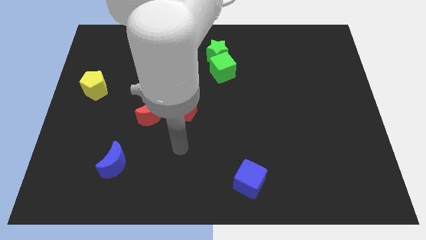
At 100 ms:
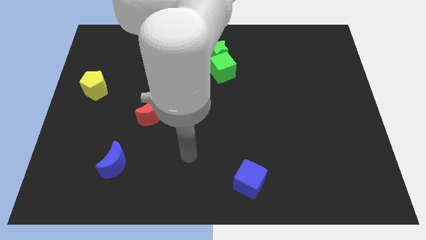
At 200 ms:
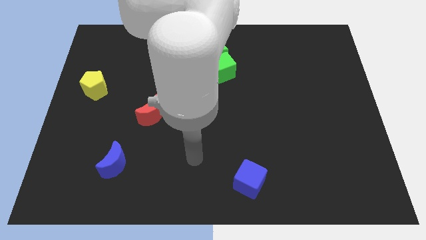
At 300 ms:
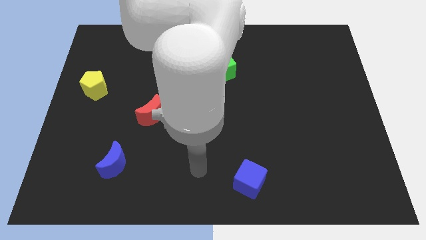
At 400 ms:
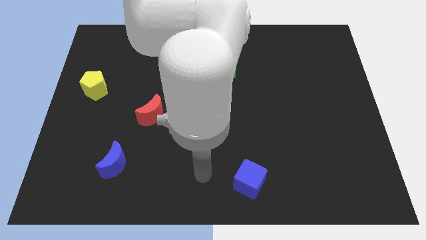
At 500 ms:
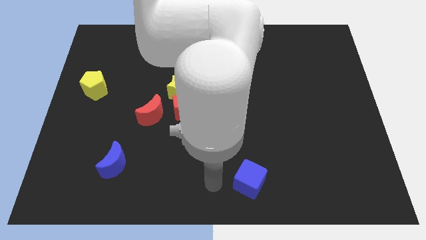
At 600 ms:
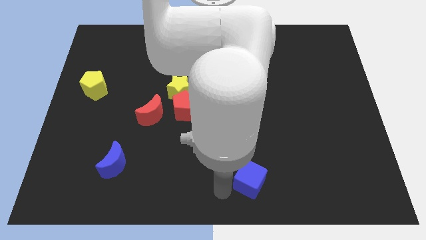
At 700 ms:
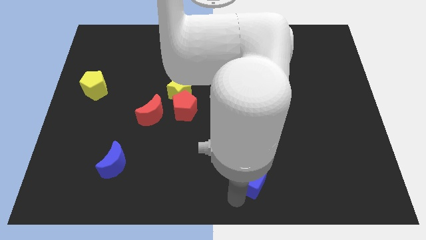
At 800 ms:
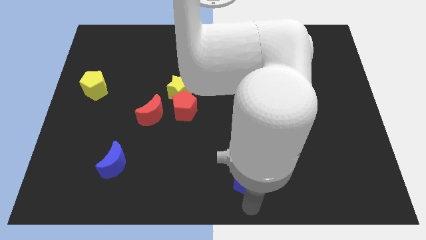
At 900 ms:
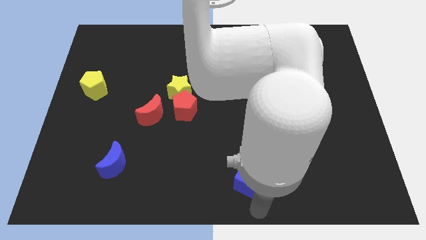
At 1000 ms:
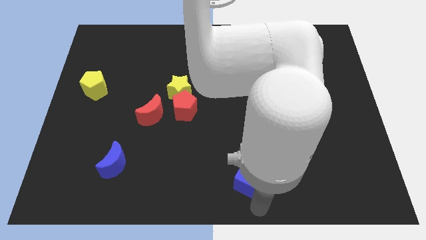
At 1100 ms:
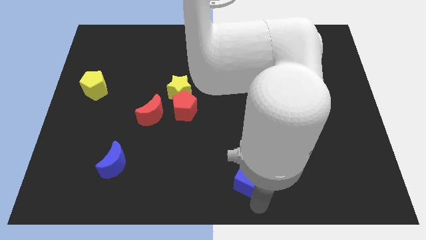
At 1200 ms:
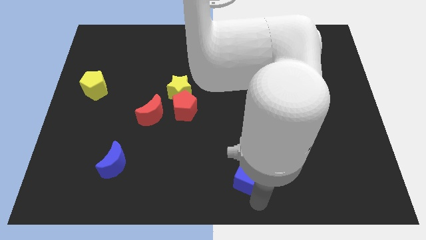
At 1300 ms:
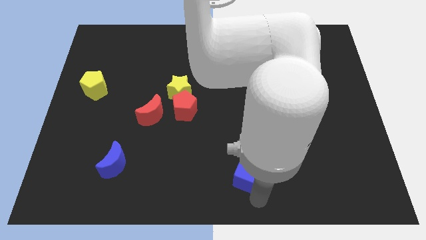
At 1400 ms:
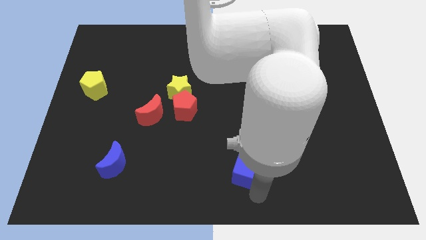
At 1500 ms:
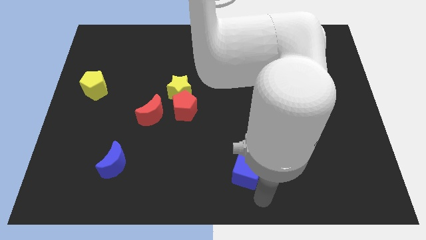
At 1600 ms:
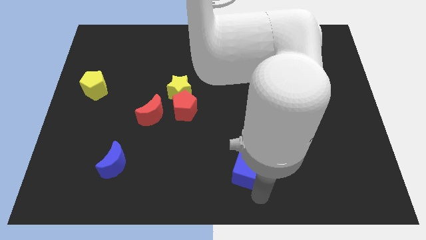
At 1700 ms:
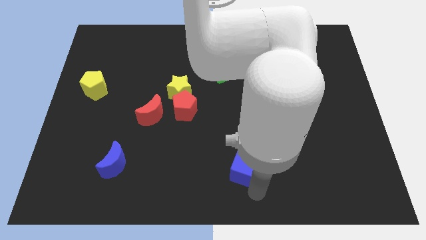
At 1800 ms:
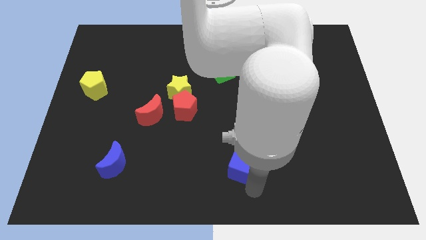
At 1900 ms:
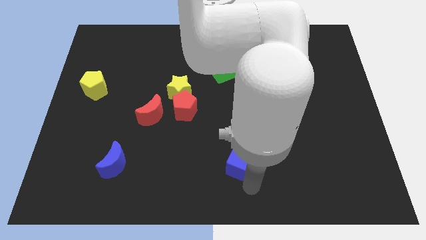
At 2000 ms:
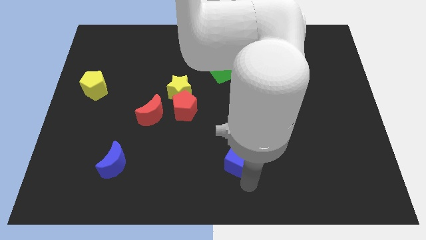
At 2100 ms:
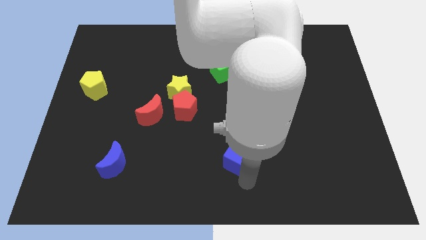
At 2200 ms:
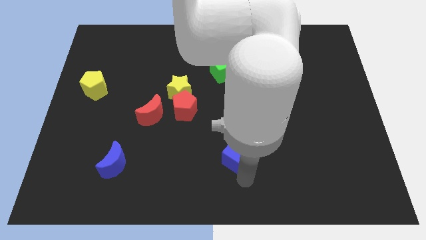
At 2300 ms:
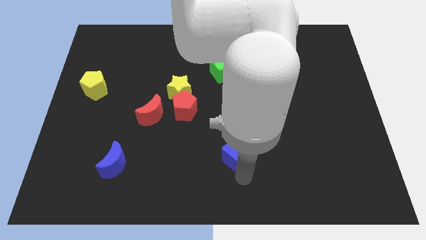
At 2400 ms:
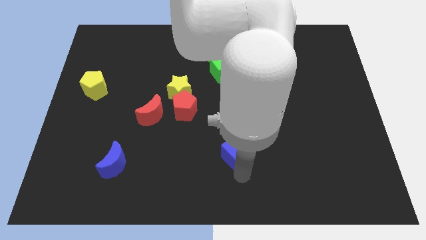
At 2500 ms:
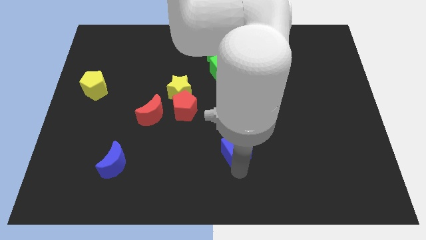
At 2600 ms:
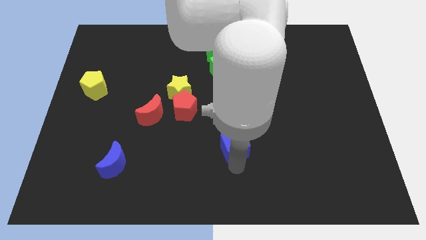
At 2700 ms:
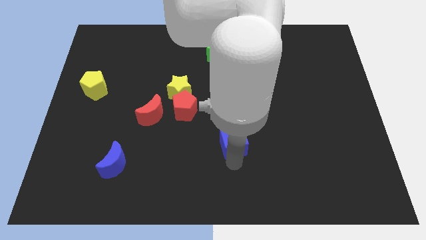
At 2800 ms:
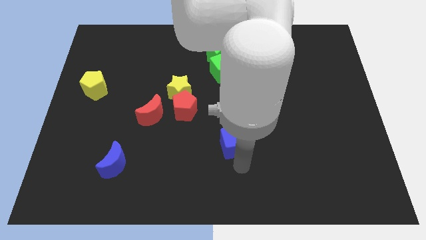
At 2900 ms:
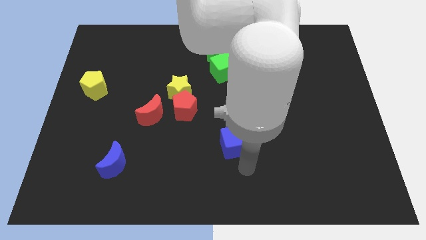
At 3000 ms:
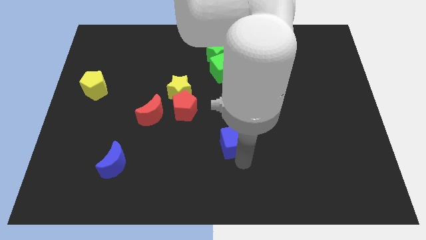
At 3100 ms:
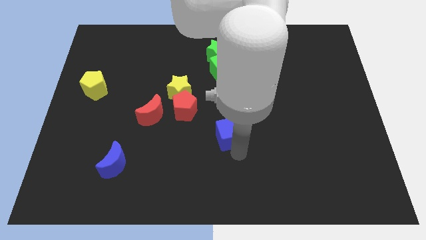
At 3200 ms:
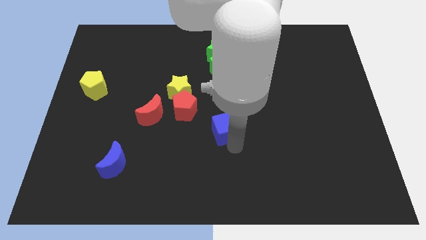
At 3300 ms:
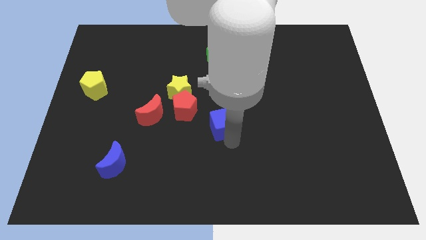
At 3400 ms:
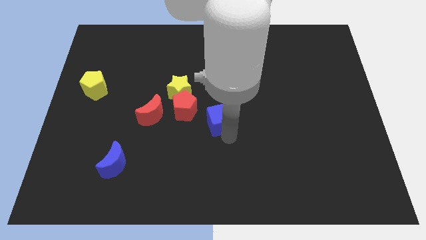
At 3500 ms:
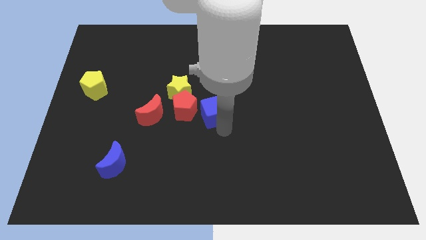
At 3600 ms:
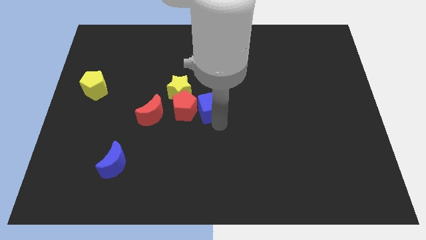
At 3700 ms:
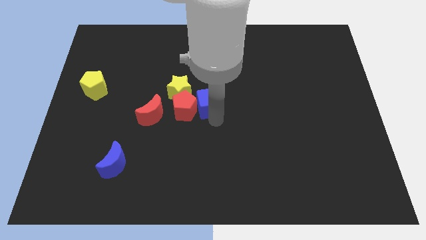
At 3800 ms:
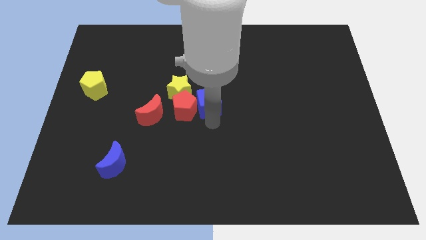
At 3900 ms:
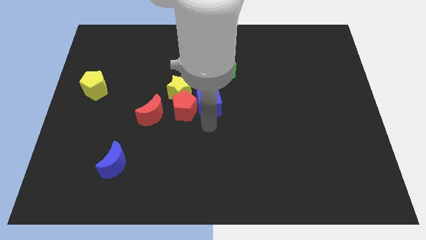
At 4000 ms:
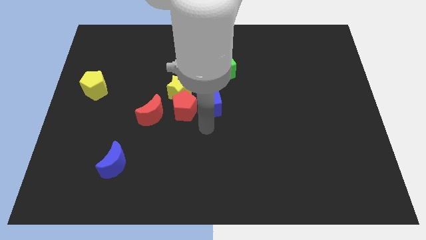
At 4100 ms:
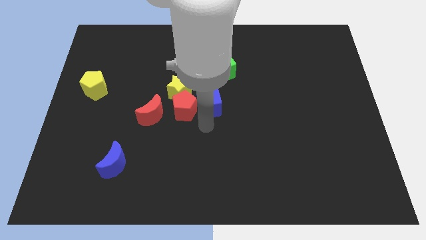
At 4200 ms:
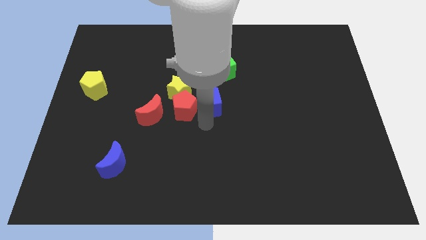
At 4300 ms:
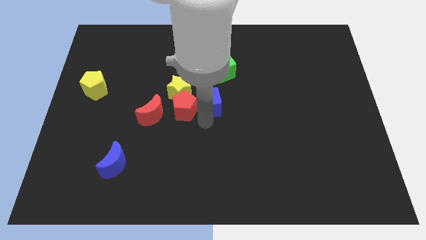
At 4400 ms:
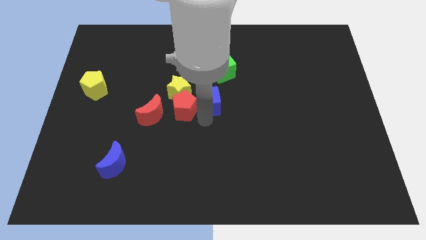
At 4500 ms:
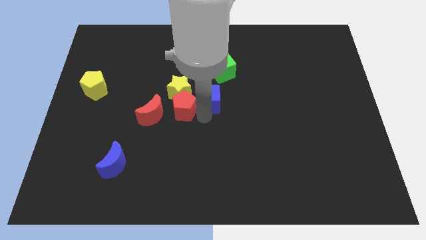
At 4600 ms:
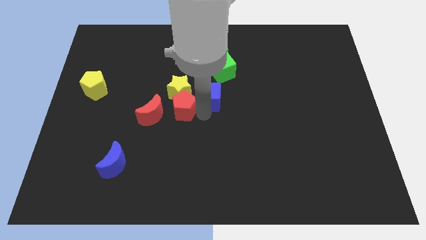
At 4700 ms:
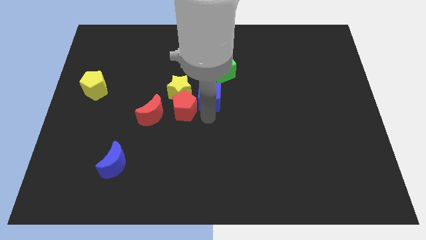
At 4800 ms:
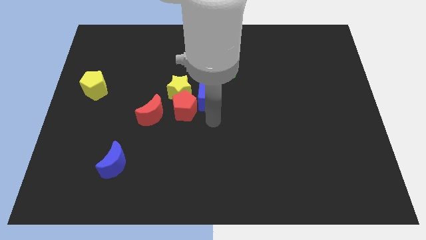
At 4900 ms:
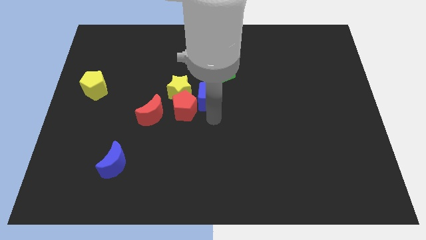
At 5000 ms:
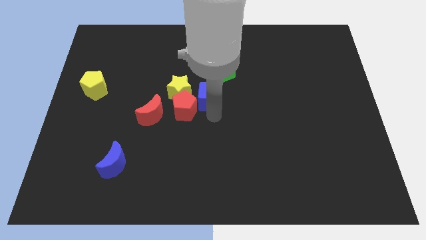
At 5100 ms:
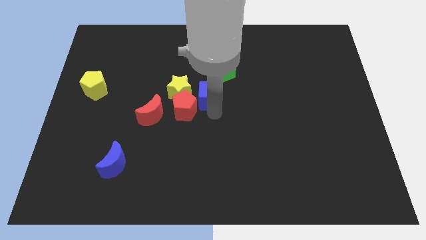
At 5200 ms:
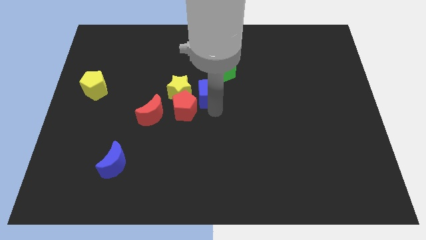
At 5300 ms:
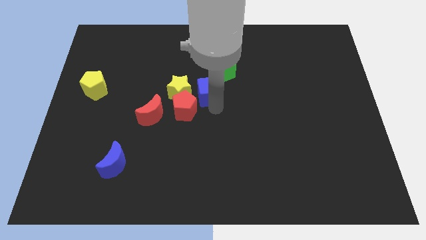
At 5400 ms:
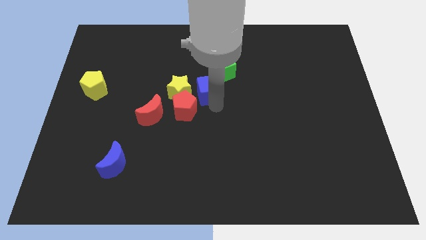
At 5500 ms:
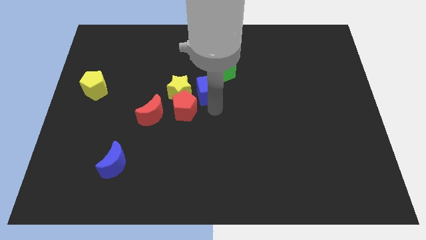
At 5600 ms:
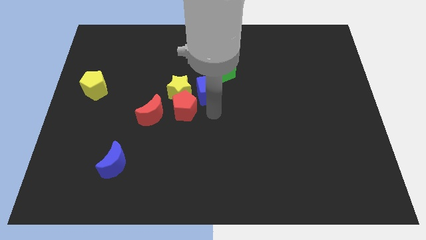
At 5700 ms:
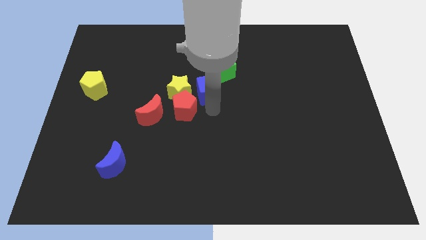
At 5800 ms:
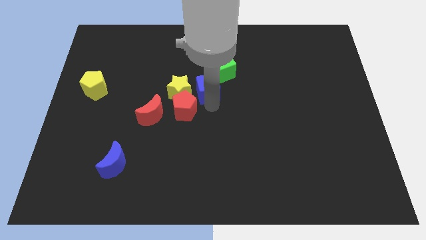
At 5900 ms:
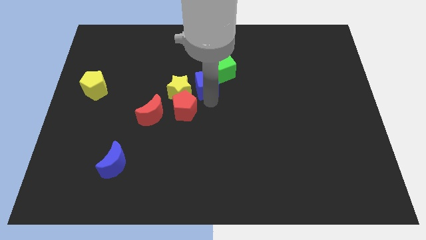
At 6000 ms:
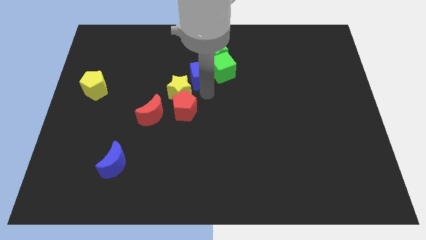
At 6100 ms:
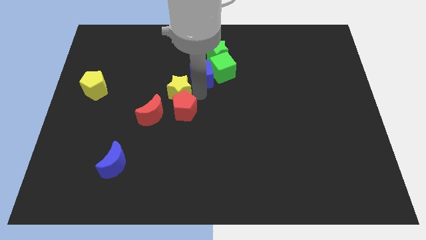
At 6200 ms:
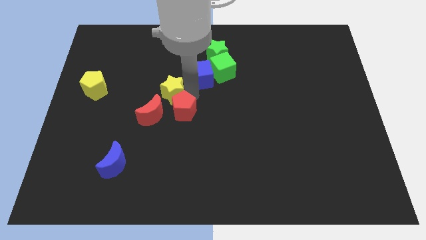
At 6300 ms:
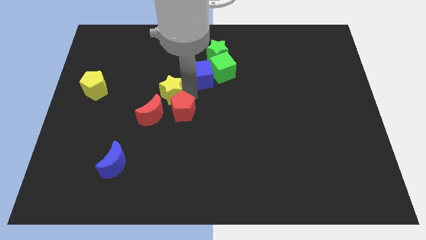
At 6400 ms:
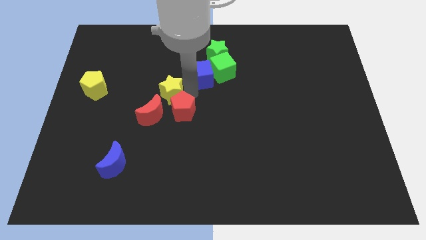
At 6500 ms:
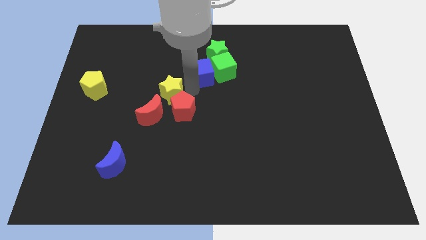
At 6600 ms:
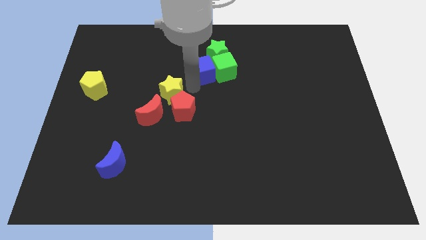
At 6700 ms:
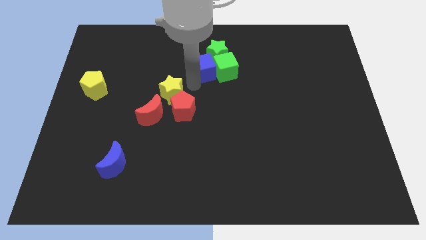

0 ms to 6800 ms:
push the blue cube towards the green star
